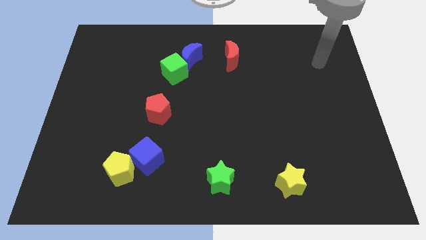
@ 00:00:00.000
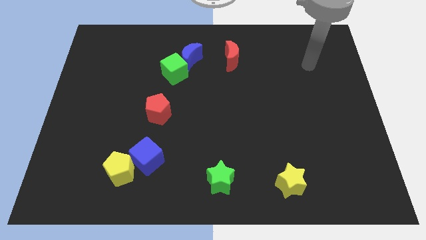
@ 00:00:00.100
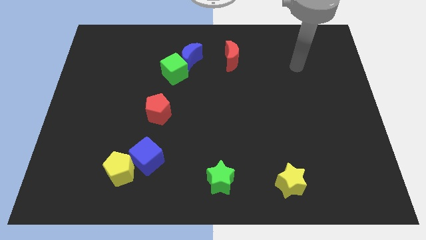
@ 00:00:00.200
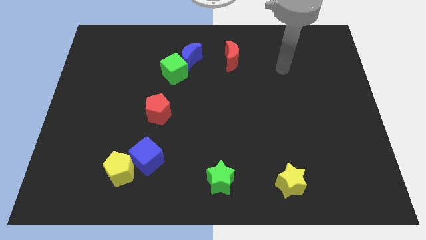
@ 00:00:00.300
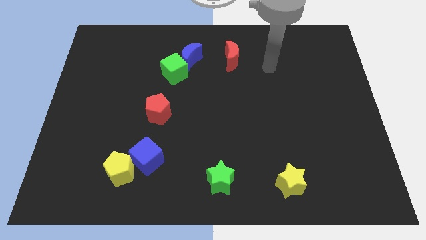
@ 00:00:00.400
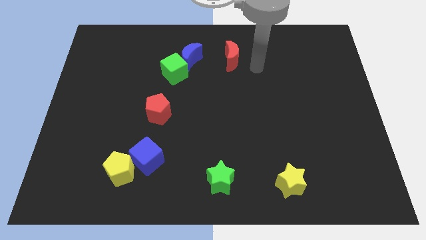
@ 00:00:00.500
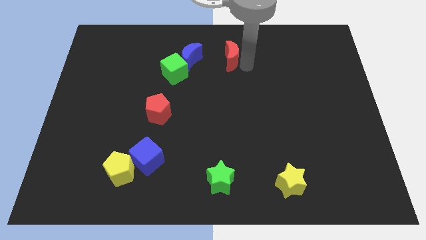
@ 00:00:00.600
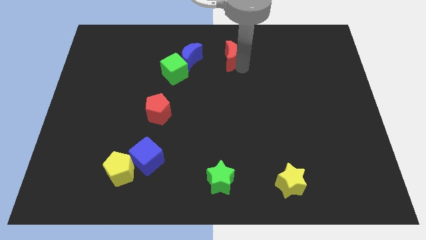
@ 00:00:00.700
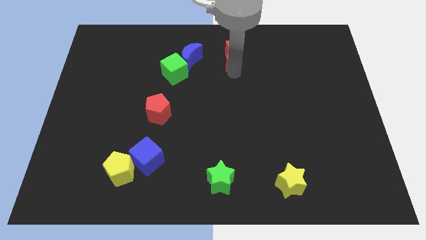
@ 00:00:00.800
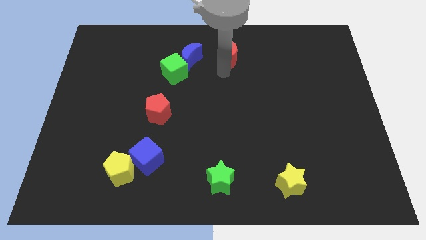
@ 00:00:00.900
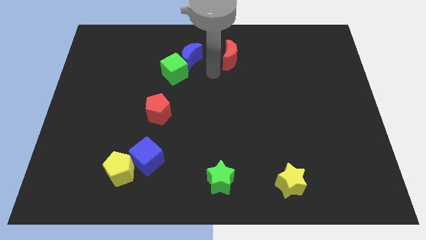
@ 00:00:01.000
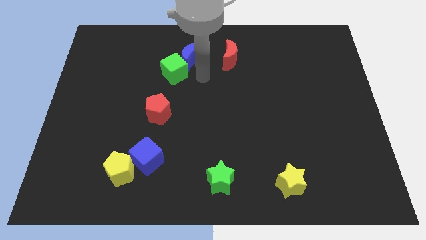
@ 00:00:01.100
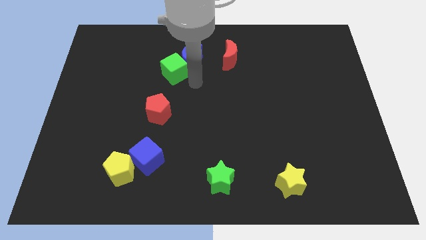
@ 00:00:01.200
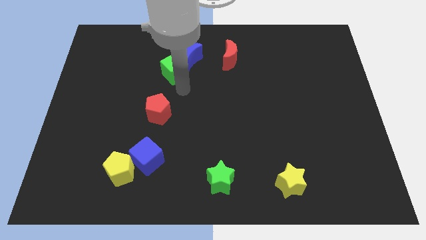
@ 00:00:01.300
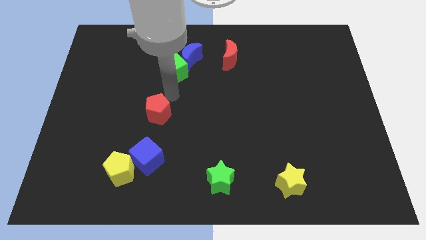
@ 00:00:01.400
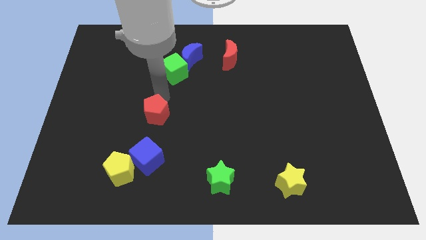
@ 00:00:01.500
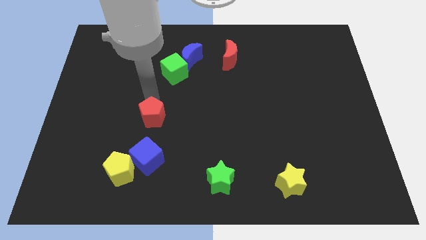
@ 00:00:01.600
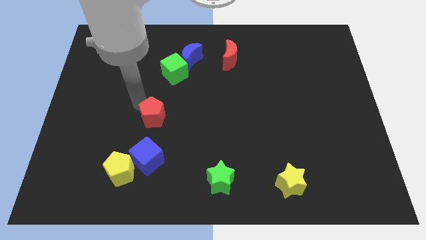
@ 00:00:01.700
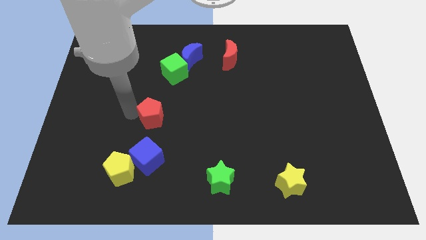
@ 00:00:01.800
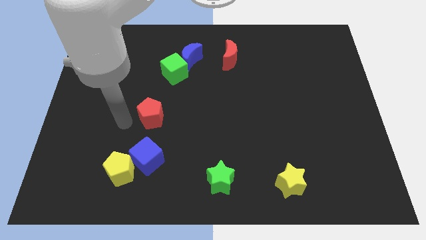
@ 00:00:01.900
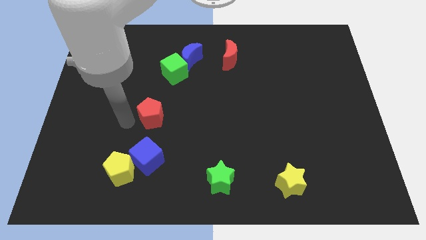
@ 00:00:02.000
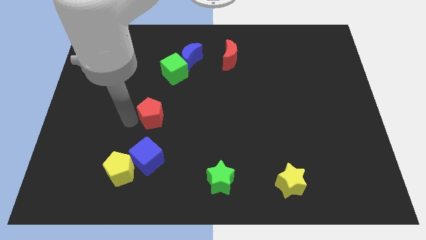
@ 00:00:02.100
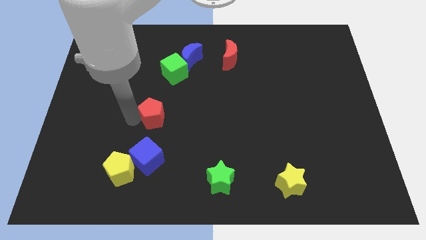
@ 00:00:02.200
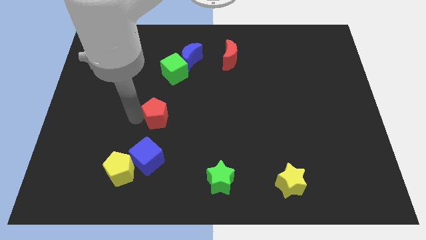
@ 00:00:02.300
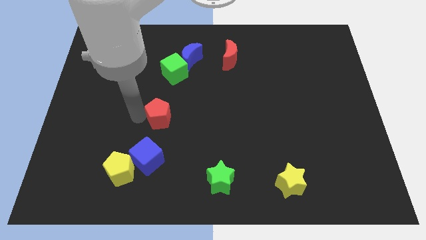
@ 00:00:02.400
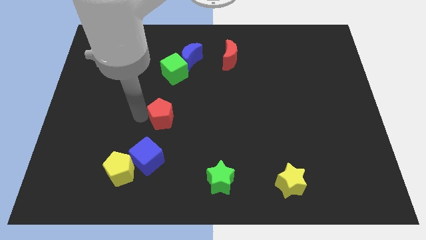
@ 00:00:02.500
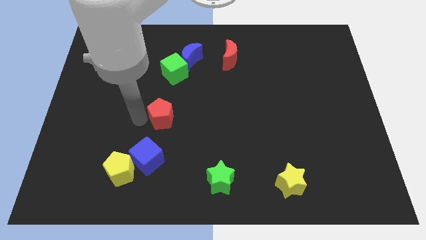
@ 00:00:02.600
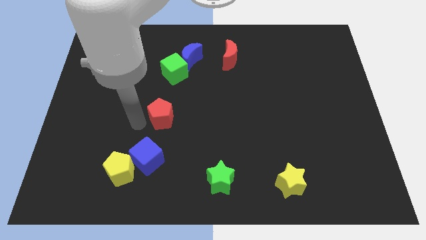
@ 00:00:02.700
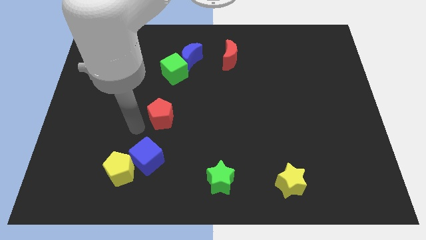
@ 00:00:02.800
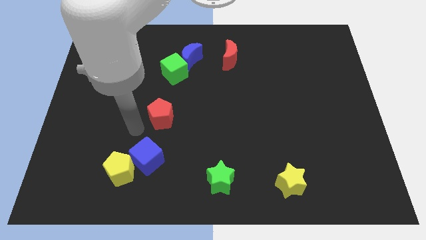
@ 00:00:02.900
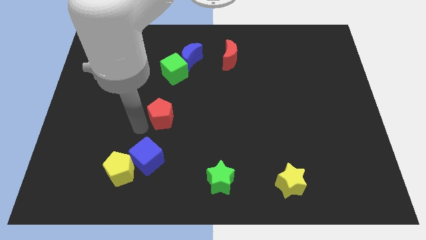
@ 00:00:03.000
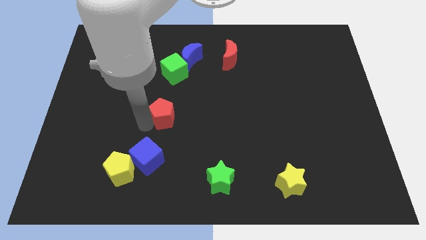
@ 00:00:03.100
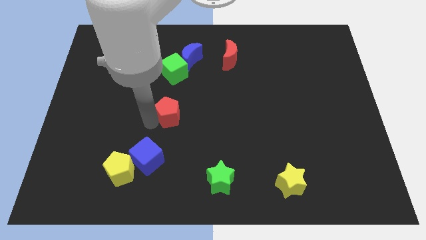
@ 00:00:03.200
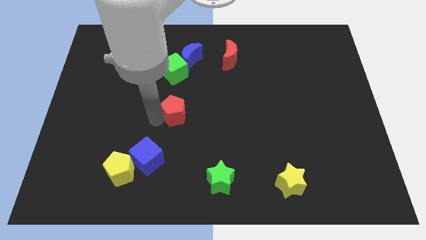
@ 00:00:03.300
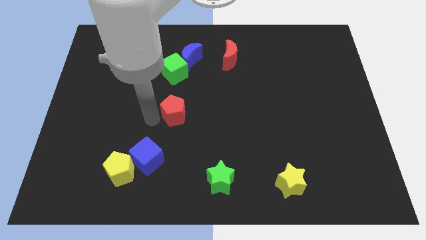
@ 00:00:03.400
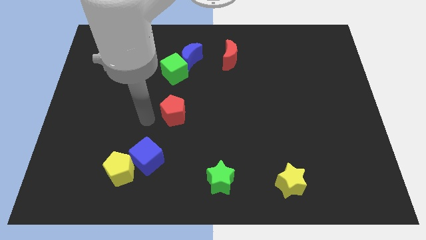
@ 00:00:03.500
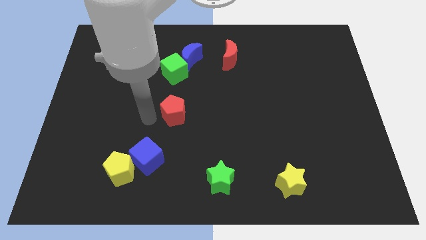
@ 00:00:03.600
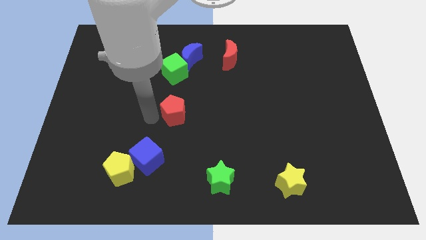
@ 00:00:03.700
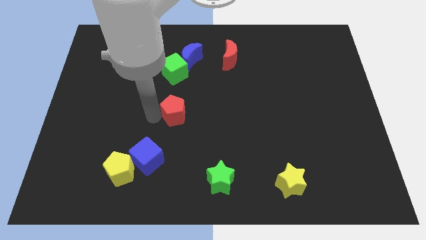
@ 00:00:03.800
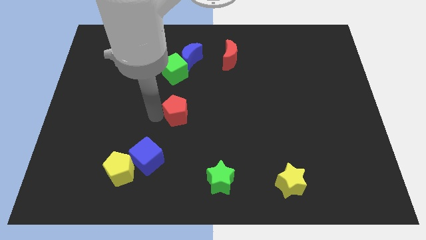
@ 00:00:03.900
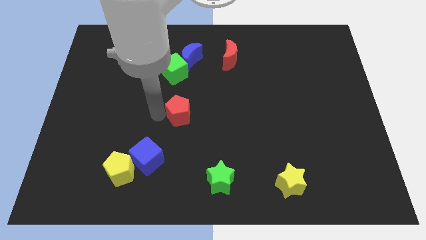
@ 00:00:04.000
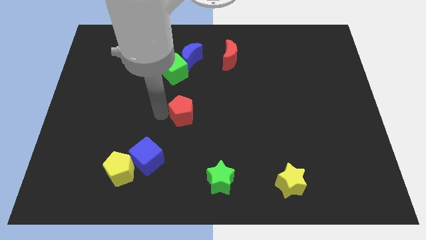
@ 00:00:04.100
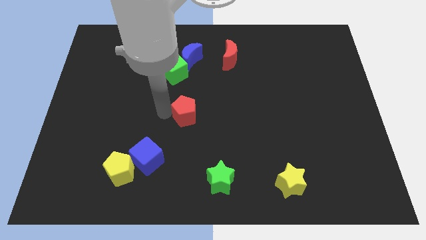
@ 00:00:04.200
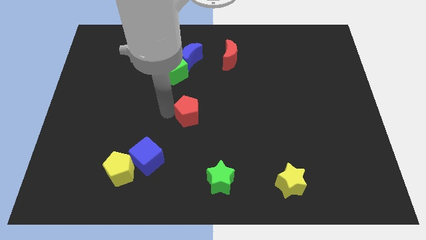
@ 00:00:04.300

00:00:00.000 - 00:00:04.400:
push the red pentagon slightly right

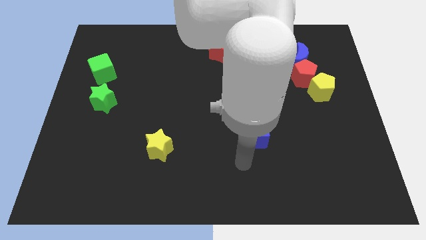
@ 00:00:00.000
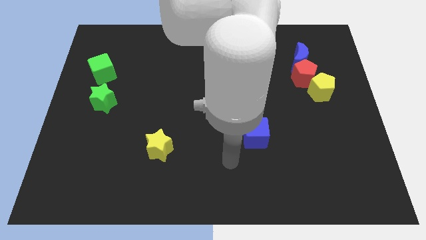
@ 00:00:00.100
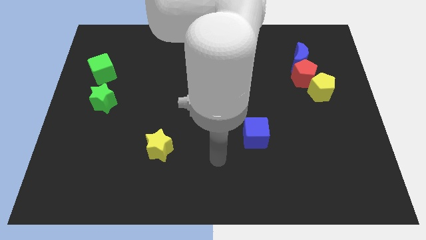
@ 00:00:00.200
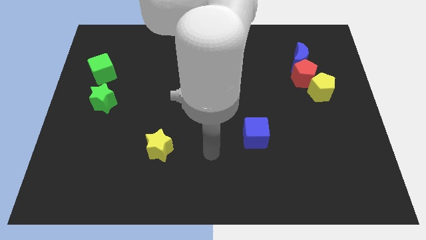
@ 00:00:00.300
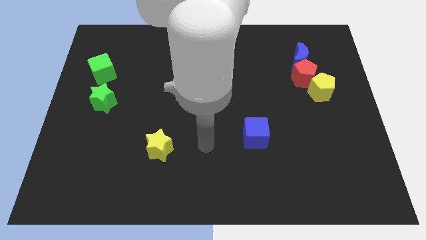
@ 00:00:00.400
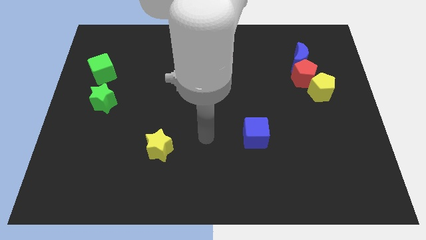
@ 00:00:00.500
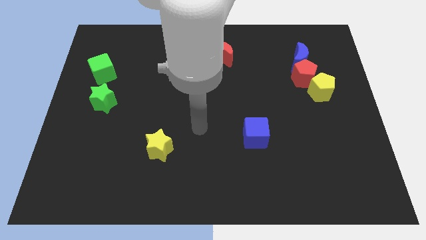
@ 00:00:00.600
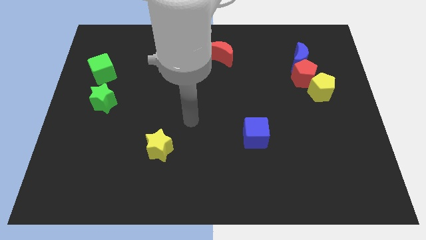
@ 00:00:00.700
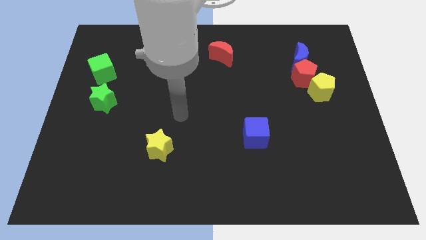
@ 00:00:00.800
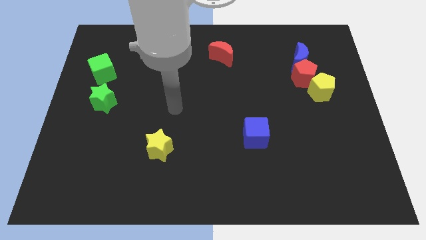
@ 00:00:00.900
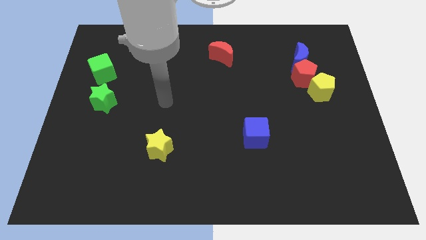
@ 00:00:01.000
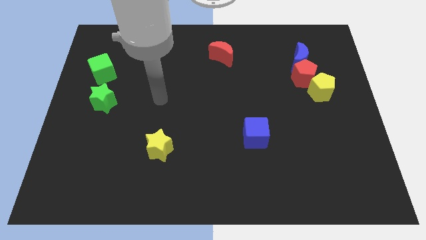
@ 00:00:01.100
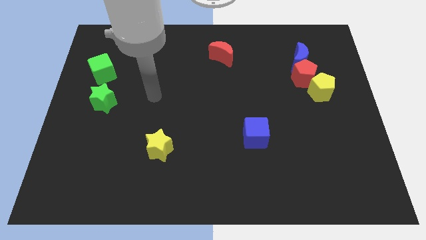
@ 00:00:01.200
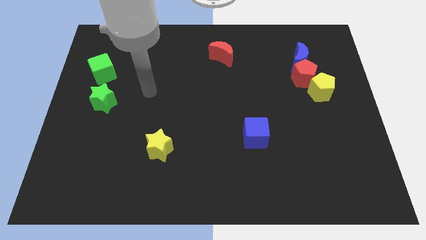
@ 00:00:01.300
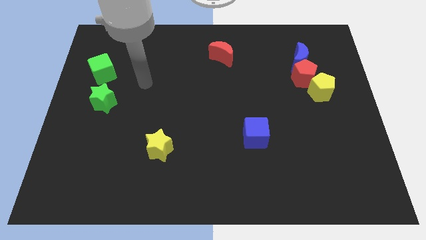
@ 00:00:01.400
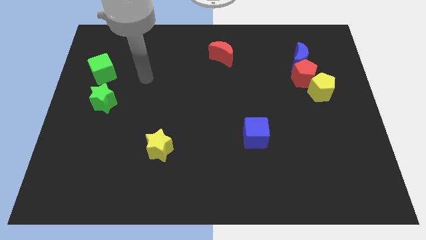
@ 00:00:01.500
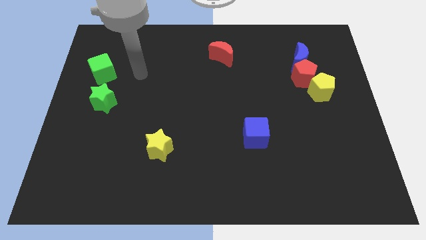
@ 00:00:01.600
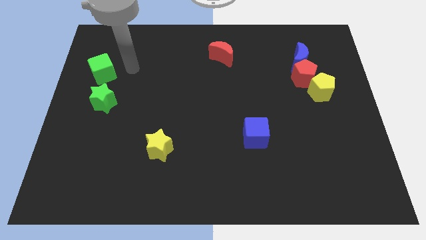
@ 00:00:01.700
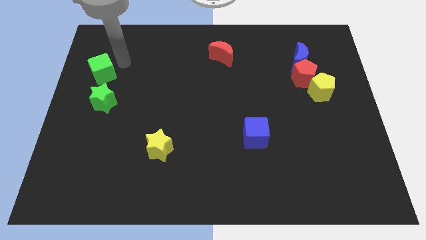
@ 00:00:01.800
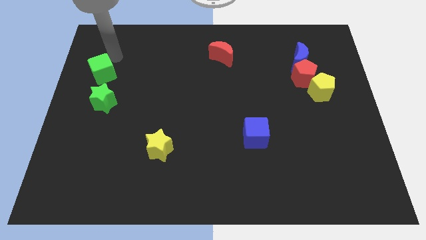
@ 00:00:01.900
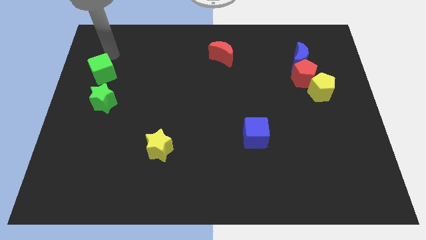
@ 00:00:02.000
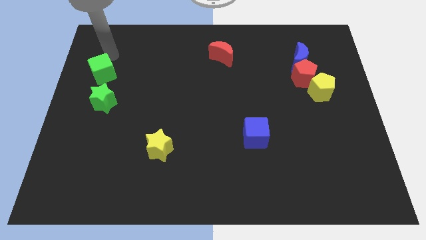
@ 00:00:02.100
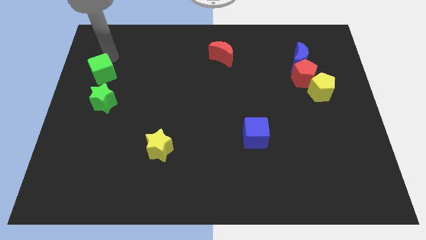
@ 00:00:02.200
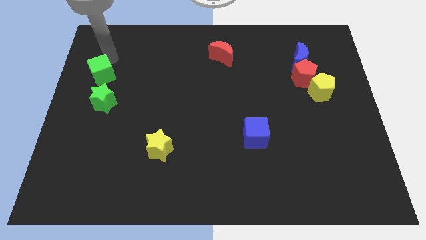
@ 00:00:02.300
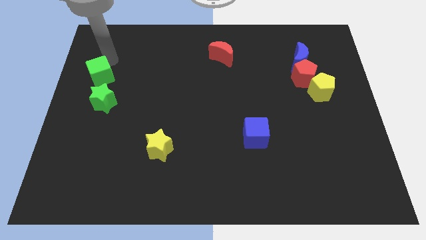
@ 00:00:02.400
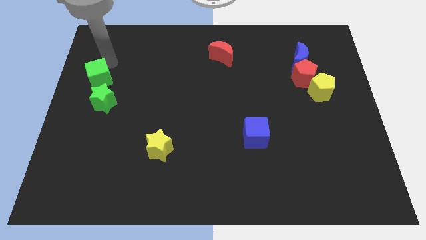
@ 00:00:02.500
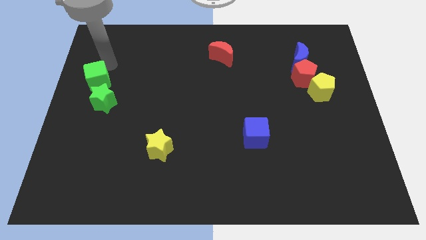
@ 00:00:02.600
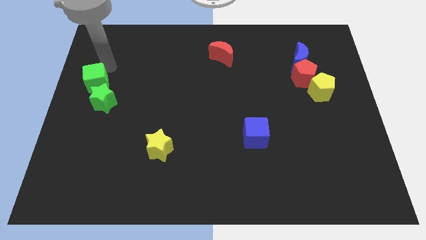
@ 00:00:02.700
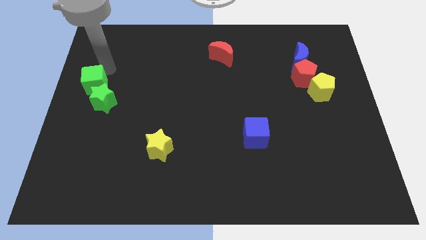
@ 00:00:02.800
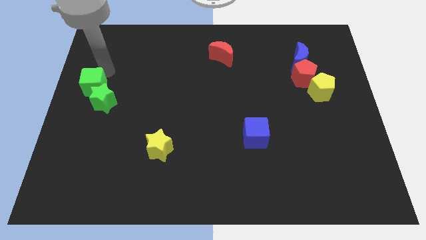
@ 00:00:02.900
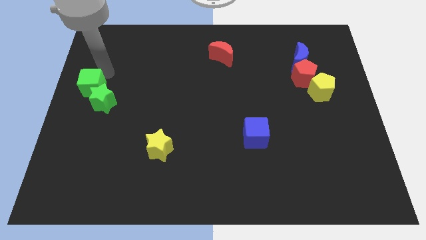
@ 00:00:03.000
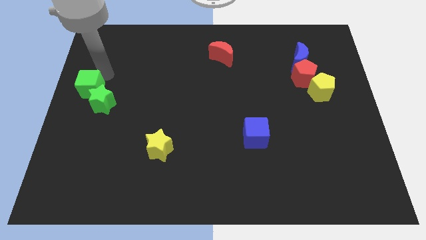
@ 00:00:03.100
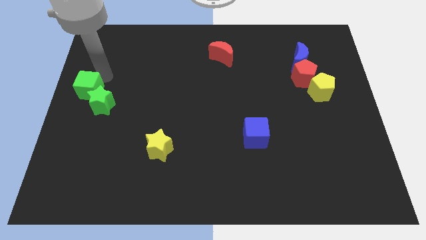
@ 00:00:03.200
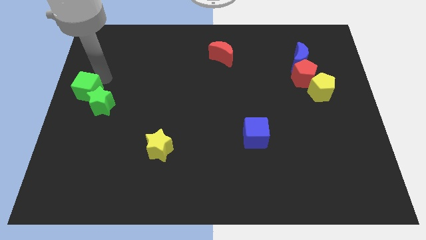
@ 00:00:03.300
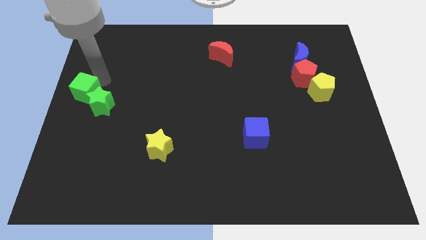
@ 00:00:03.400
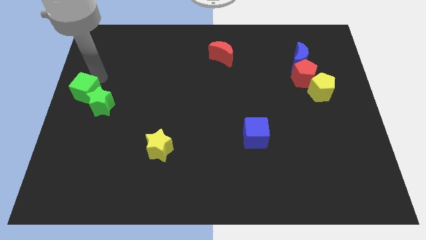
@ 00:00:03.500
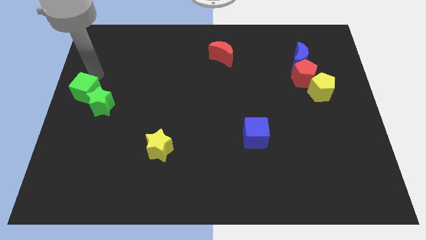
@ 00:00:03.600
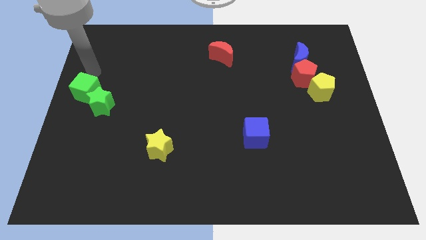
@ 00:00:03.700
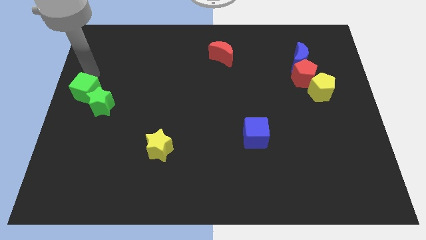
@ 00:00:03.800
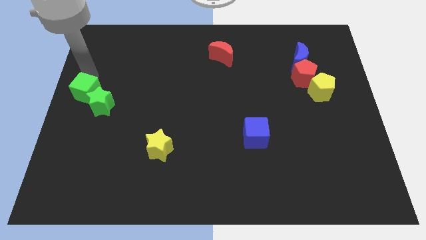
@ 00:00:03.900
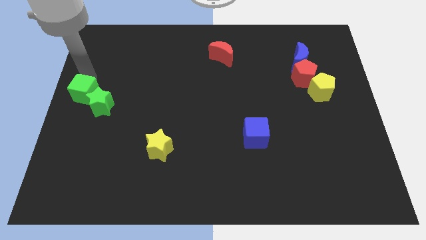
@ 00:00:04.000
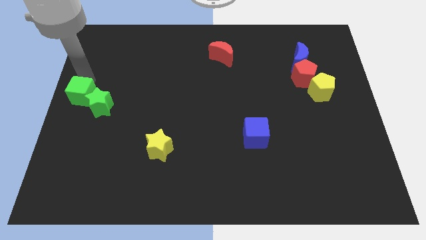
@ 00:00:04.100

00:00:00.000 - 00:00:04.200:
push the green cube down somewhat
